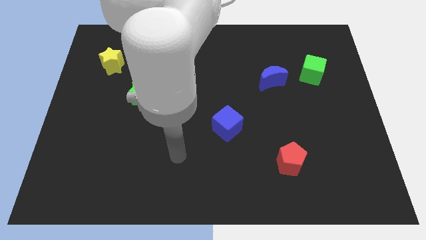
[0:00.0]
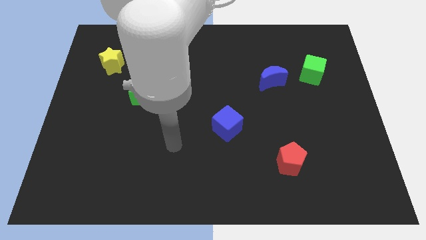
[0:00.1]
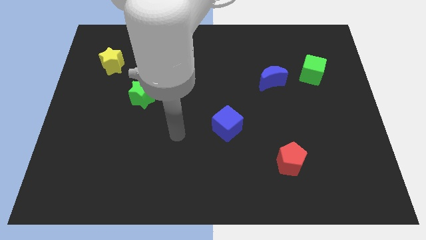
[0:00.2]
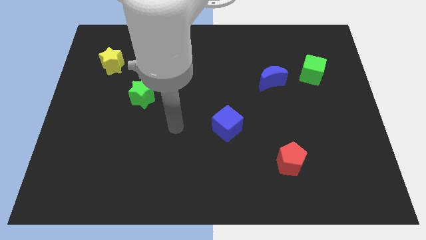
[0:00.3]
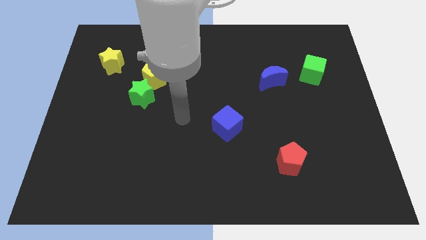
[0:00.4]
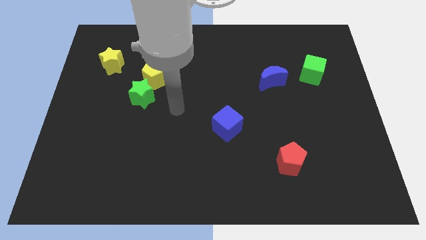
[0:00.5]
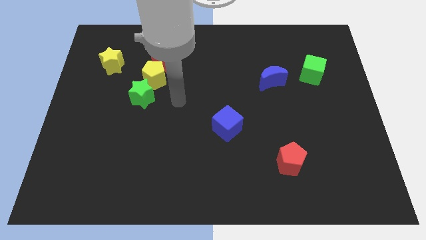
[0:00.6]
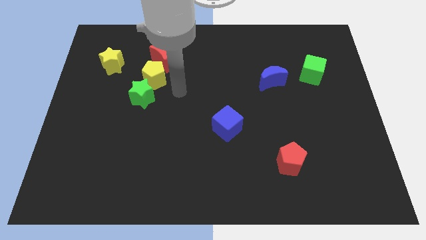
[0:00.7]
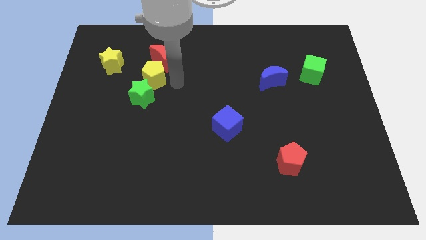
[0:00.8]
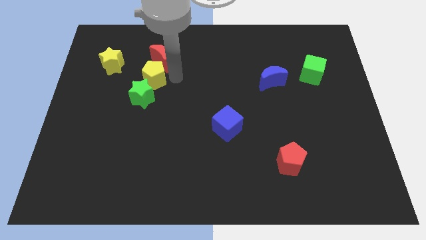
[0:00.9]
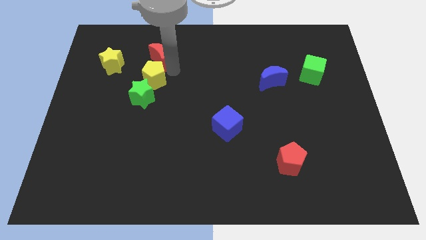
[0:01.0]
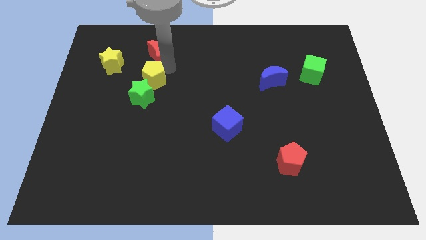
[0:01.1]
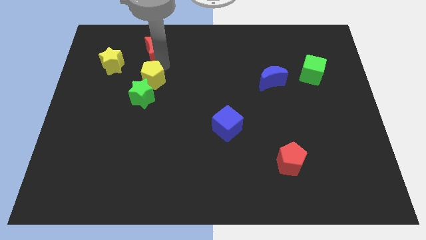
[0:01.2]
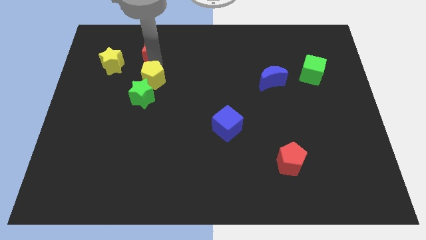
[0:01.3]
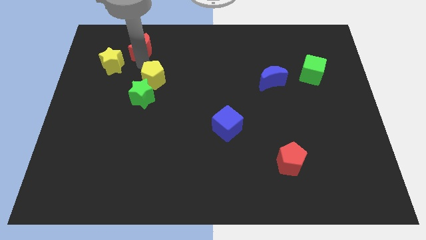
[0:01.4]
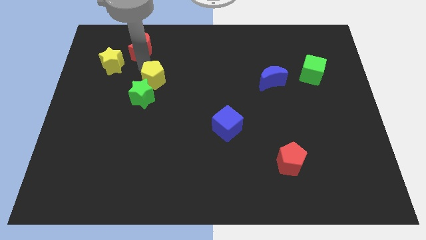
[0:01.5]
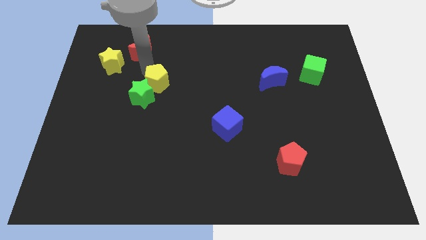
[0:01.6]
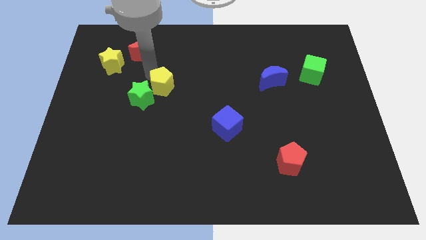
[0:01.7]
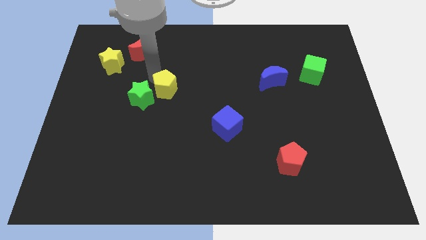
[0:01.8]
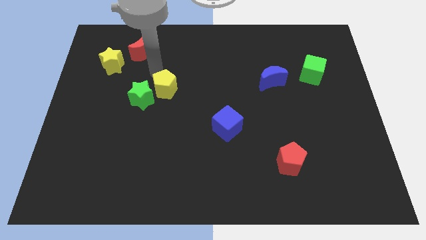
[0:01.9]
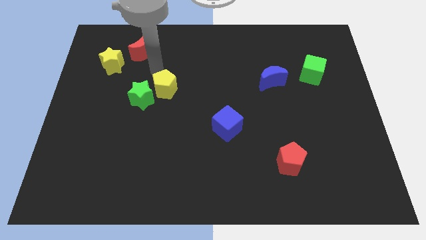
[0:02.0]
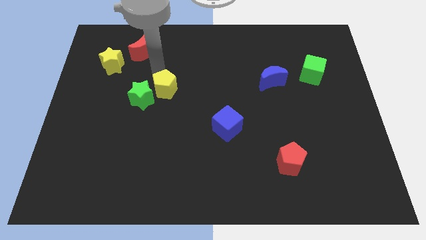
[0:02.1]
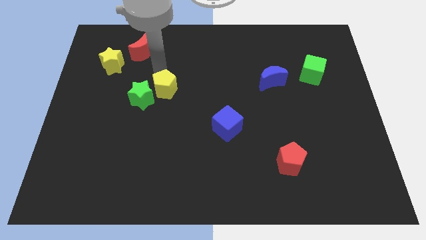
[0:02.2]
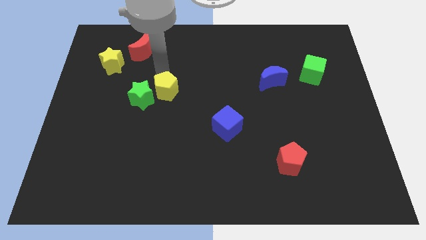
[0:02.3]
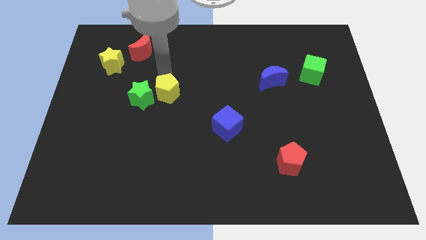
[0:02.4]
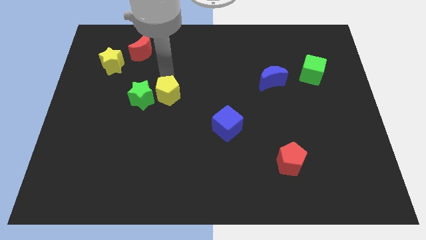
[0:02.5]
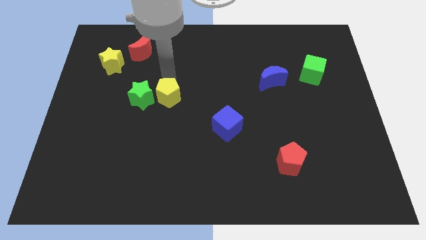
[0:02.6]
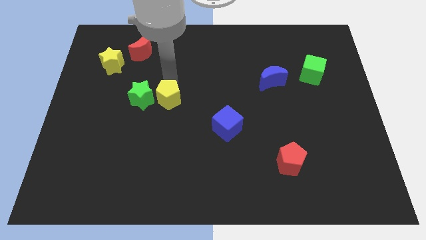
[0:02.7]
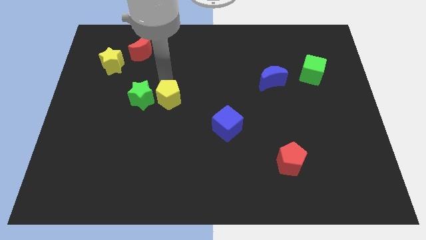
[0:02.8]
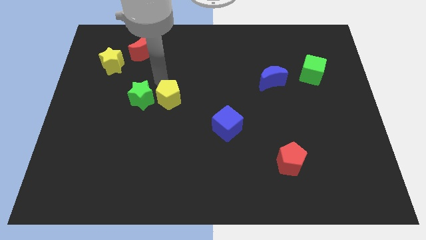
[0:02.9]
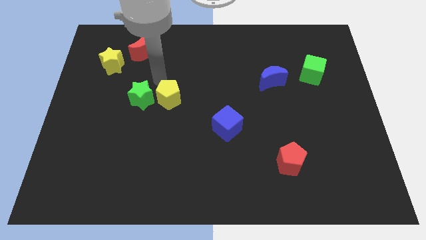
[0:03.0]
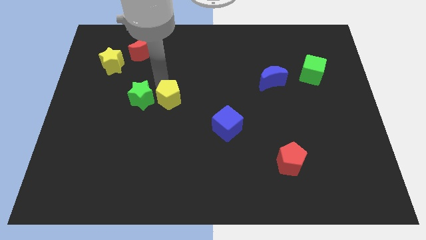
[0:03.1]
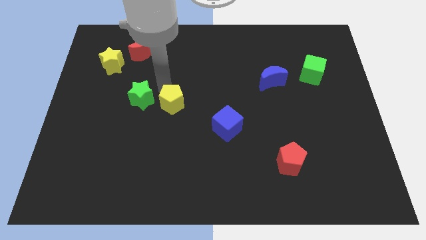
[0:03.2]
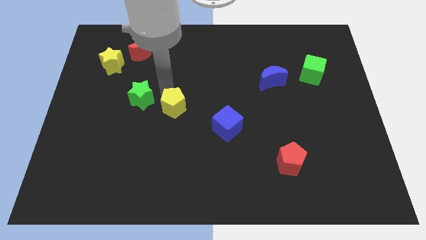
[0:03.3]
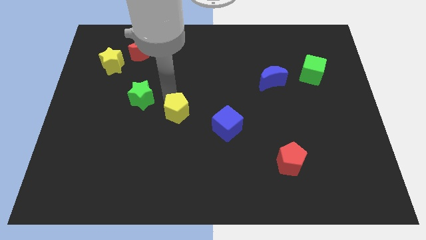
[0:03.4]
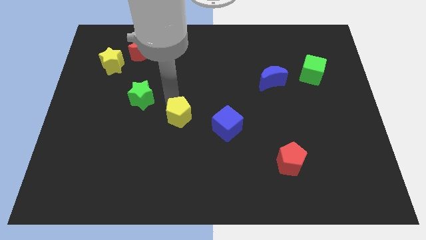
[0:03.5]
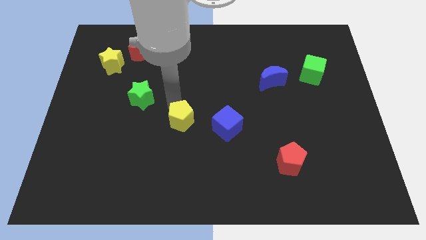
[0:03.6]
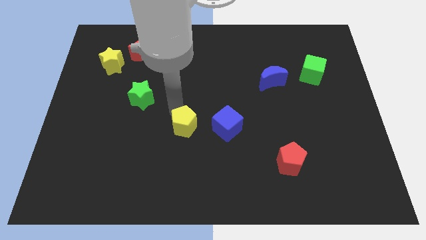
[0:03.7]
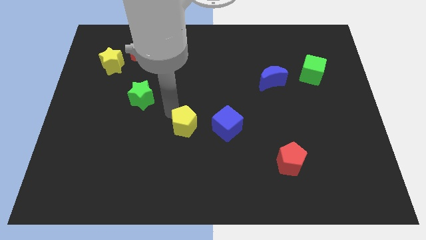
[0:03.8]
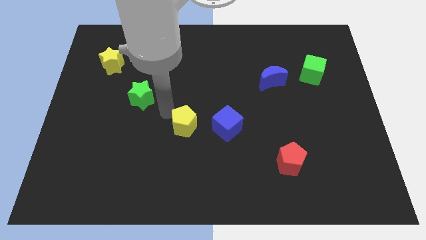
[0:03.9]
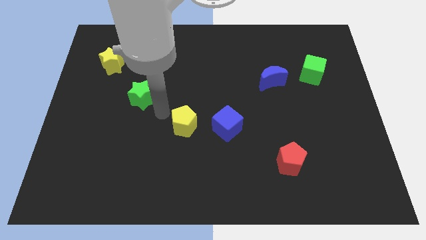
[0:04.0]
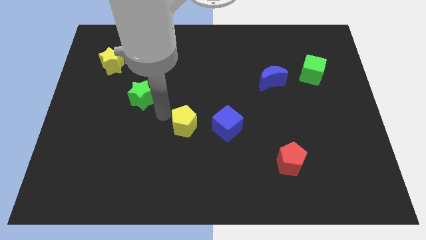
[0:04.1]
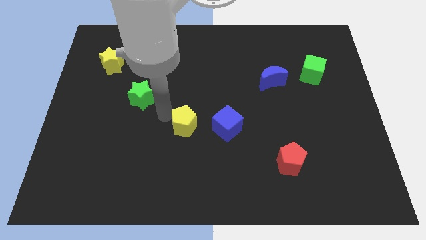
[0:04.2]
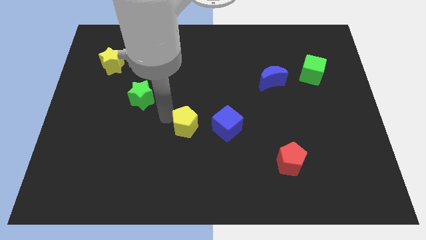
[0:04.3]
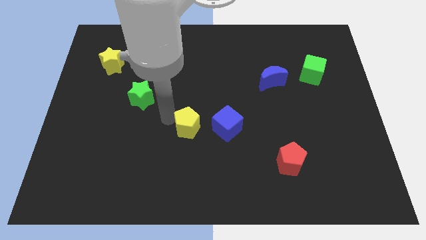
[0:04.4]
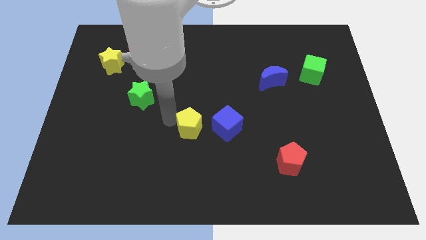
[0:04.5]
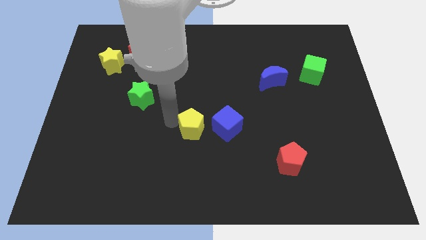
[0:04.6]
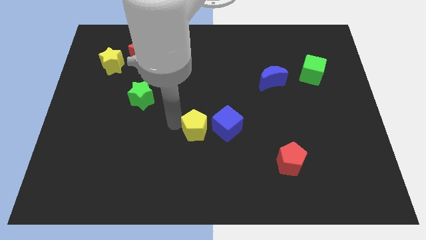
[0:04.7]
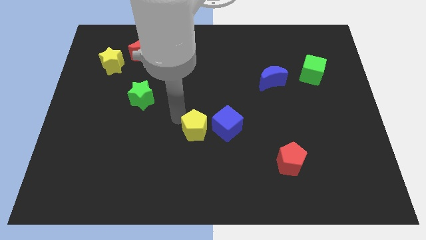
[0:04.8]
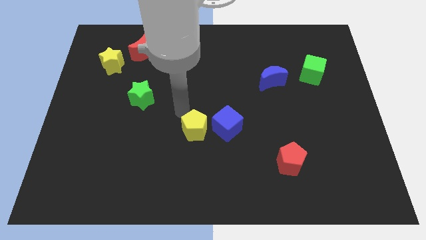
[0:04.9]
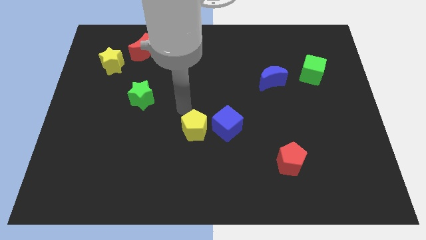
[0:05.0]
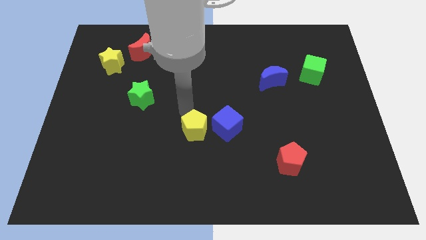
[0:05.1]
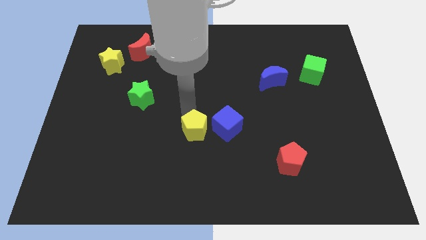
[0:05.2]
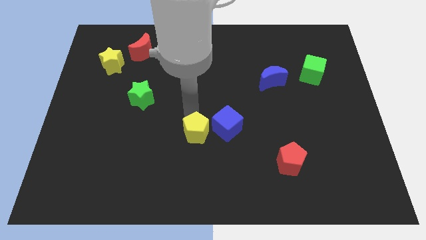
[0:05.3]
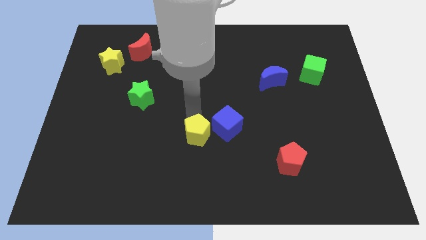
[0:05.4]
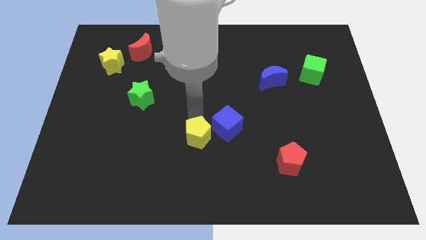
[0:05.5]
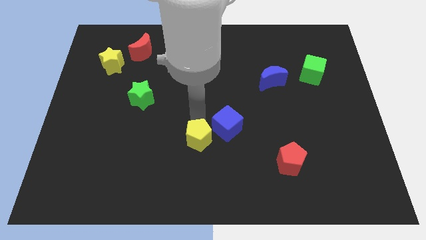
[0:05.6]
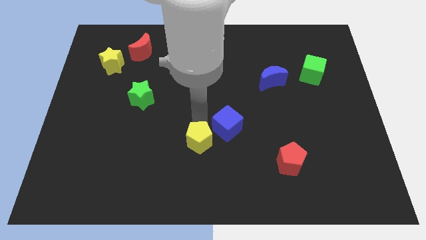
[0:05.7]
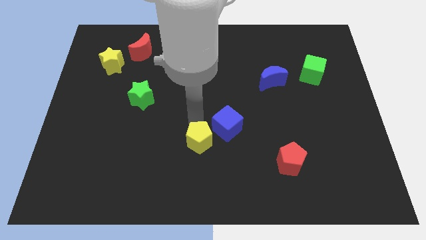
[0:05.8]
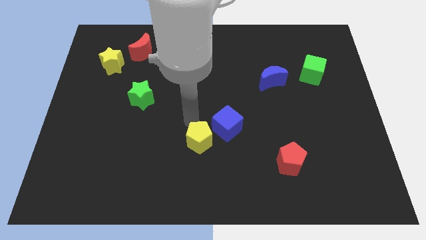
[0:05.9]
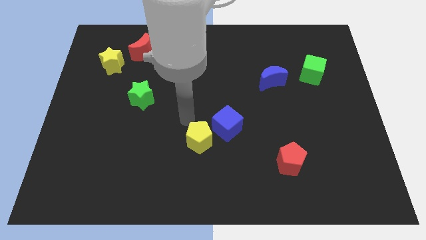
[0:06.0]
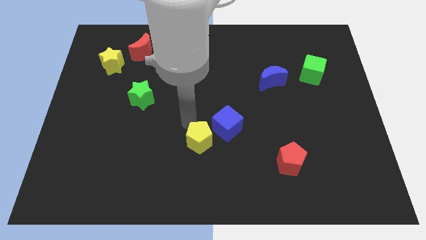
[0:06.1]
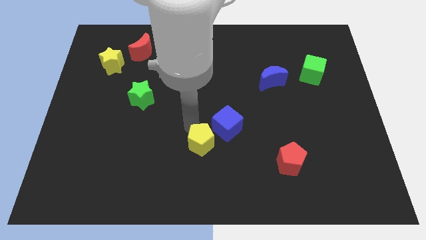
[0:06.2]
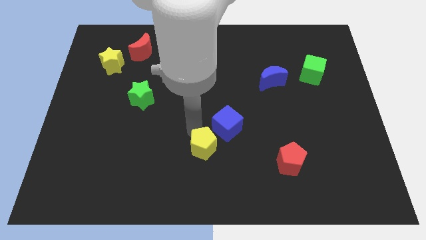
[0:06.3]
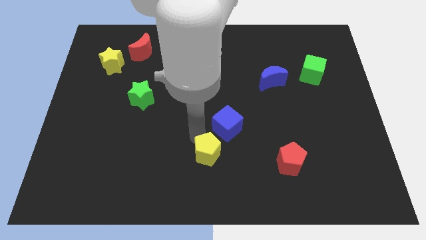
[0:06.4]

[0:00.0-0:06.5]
move the yellow pentagon to the bottom of the blue cube
